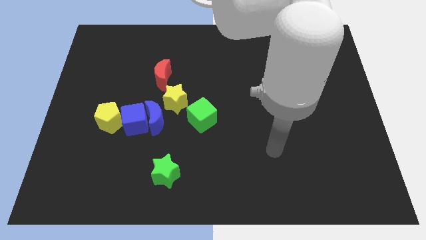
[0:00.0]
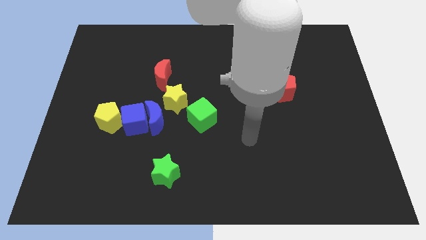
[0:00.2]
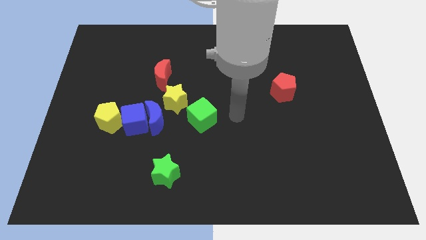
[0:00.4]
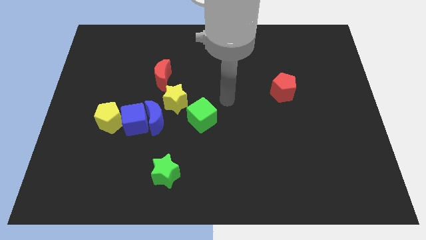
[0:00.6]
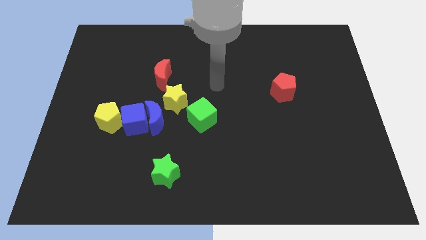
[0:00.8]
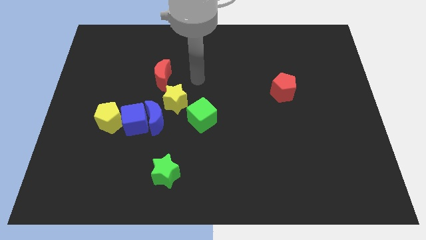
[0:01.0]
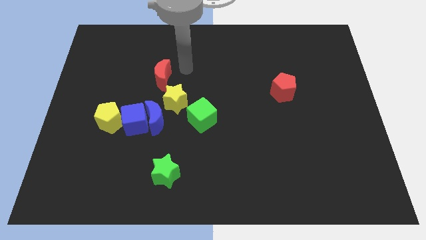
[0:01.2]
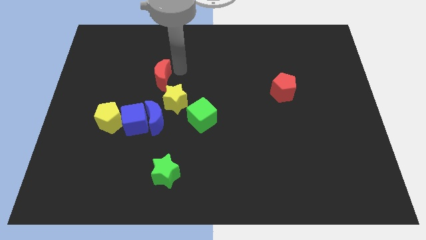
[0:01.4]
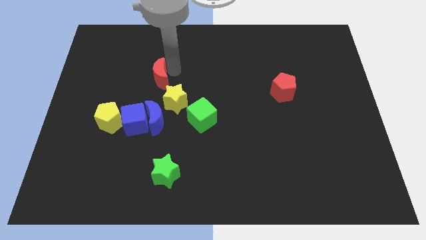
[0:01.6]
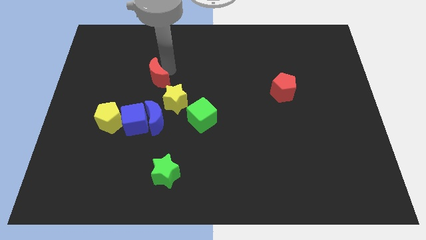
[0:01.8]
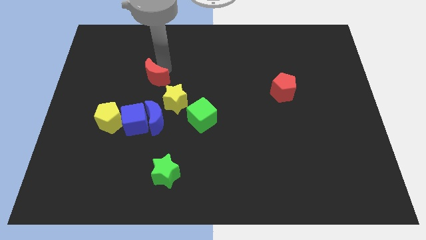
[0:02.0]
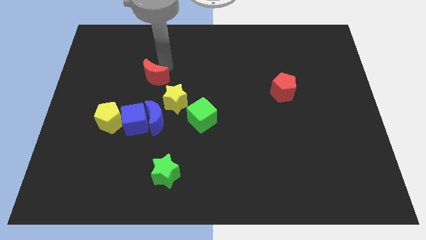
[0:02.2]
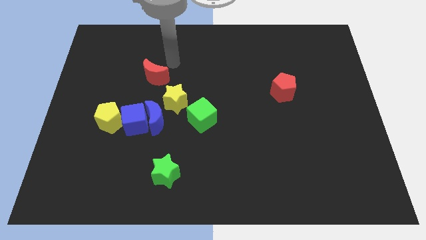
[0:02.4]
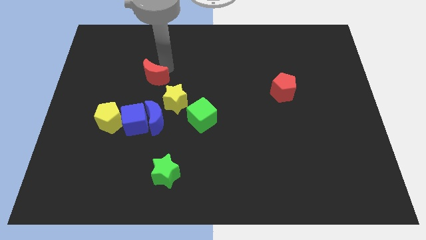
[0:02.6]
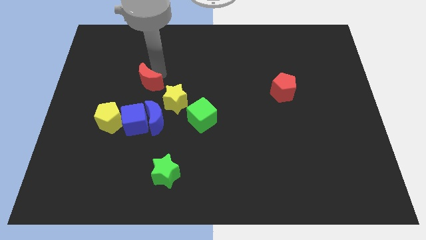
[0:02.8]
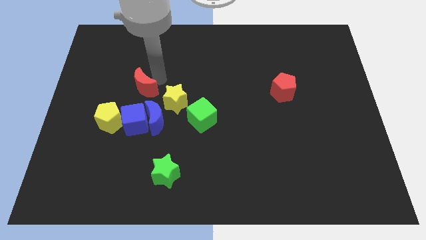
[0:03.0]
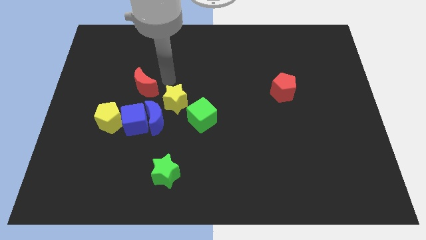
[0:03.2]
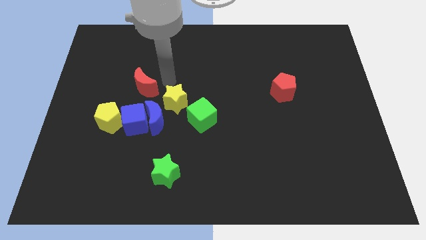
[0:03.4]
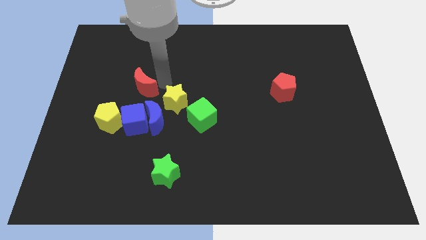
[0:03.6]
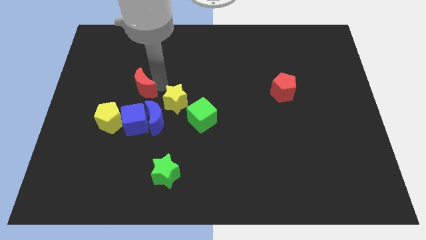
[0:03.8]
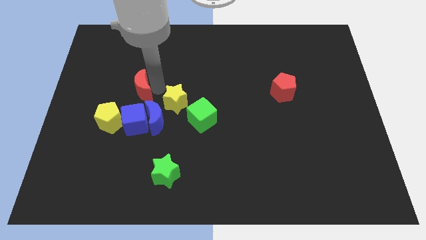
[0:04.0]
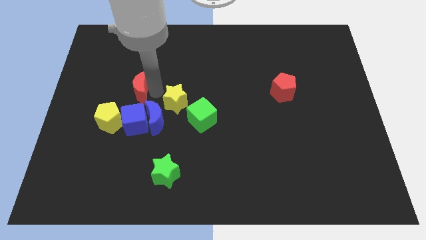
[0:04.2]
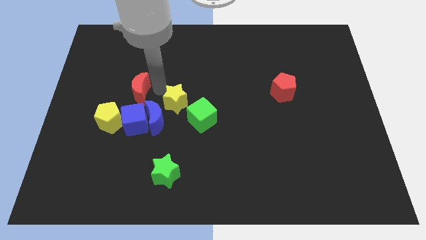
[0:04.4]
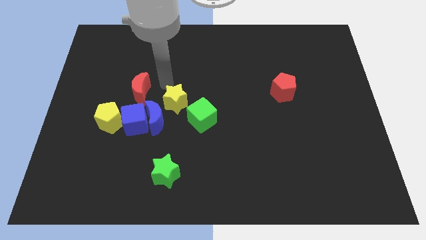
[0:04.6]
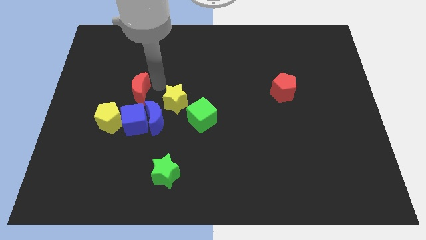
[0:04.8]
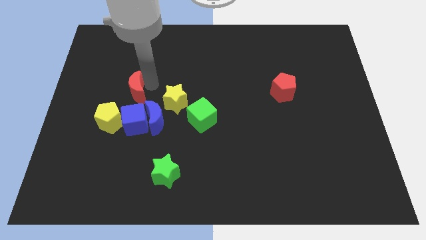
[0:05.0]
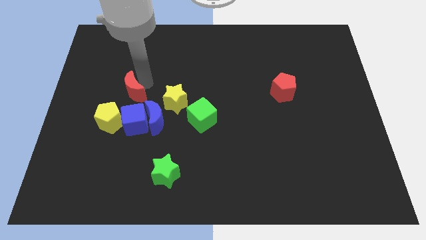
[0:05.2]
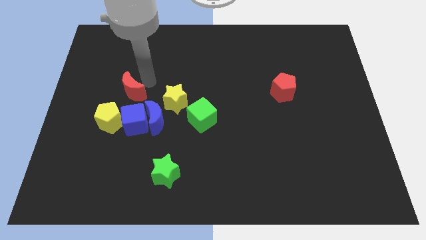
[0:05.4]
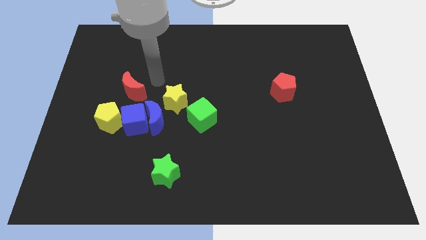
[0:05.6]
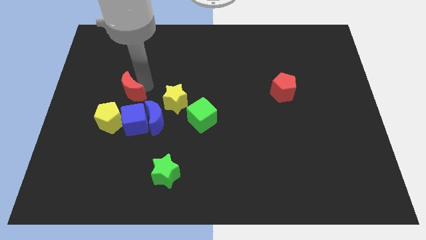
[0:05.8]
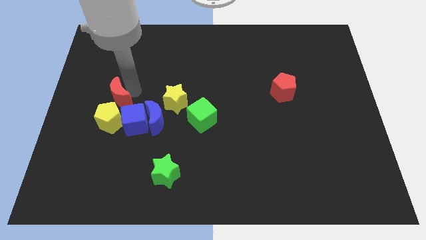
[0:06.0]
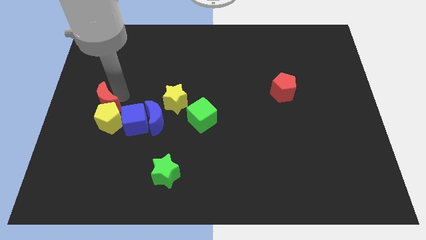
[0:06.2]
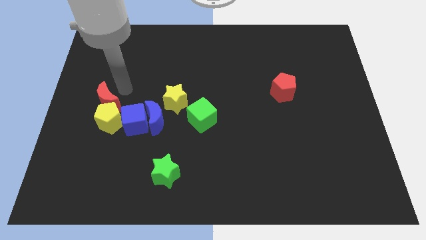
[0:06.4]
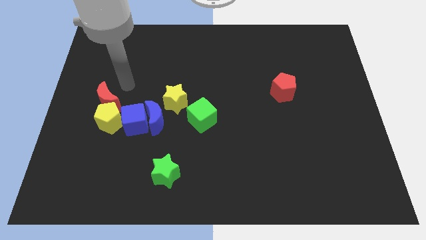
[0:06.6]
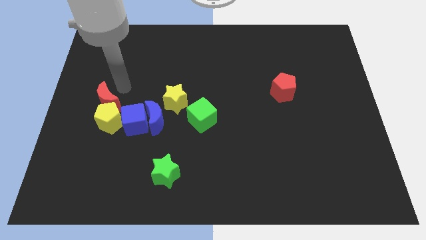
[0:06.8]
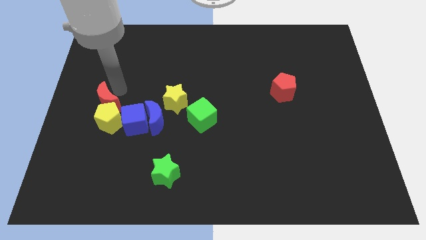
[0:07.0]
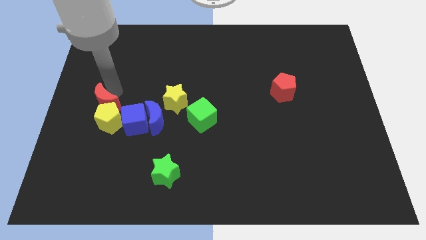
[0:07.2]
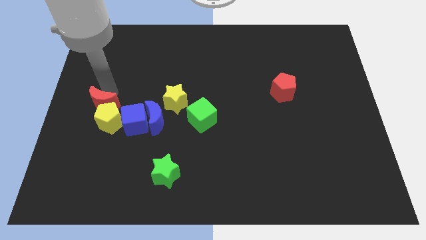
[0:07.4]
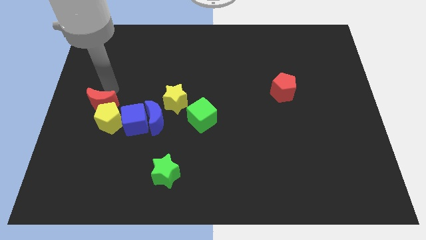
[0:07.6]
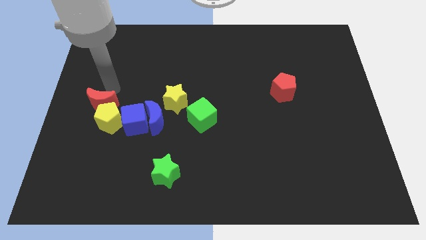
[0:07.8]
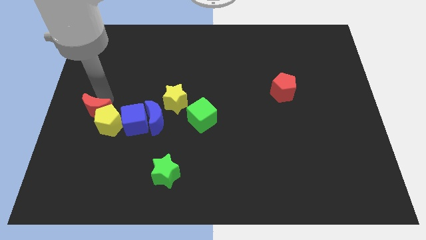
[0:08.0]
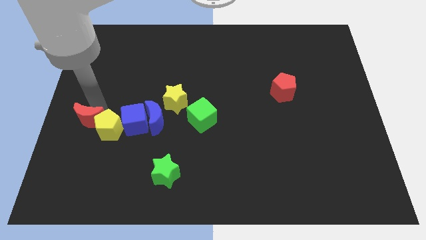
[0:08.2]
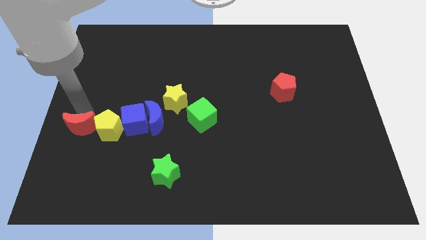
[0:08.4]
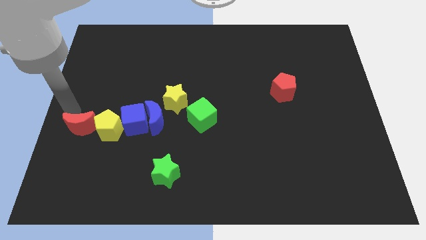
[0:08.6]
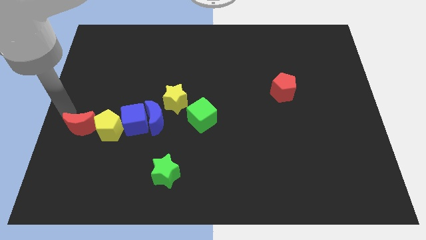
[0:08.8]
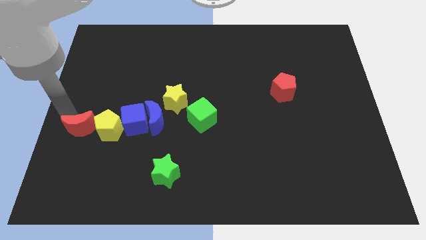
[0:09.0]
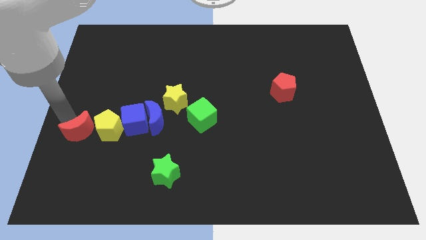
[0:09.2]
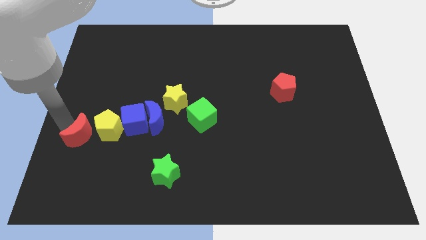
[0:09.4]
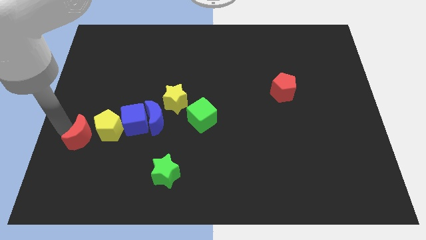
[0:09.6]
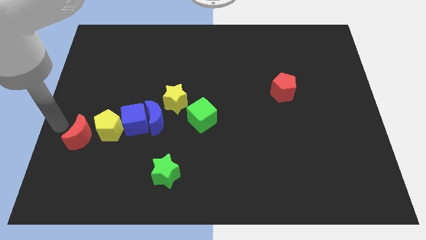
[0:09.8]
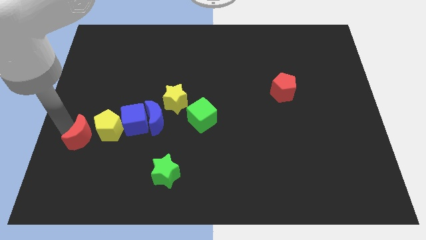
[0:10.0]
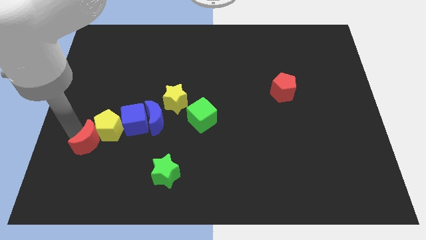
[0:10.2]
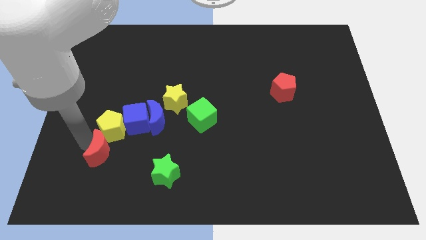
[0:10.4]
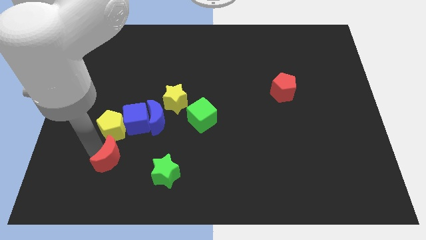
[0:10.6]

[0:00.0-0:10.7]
push the red moon below the blue cube

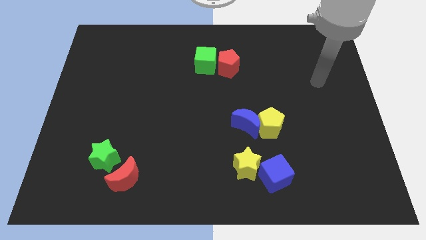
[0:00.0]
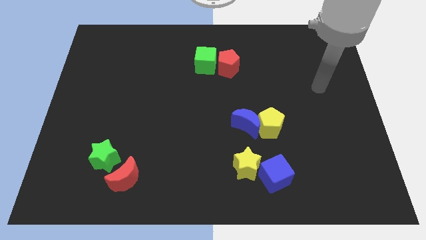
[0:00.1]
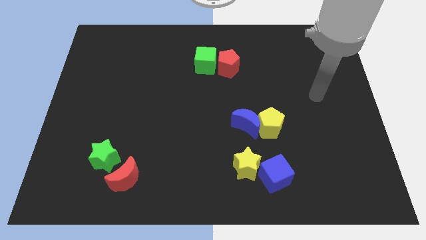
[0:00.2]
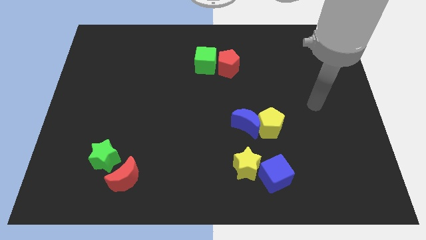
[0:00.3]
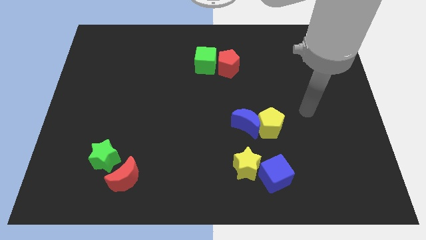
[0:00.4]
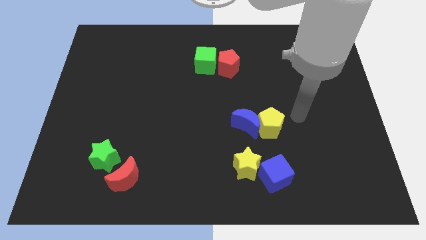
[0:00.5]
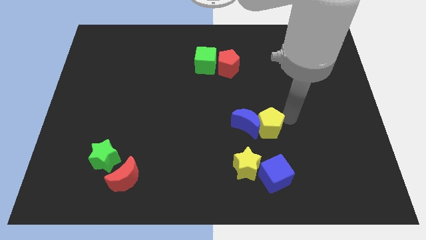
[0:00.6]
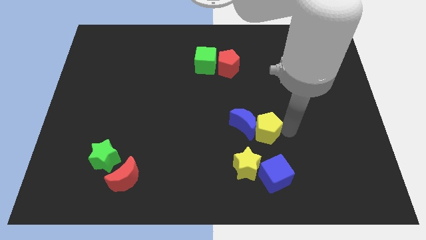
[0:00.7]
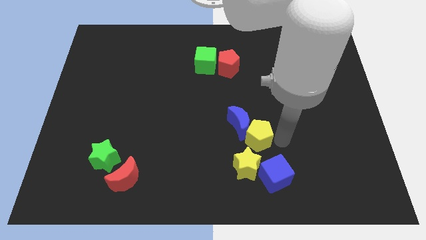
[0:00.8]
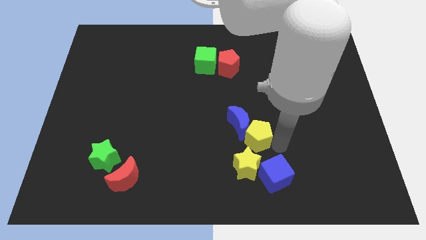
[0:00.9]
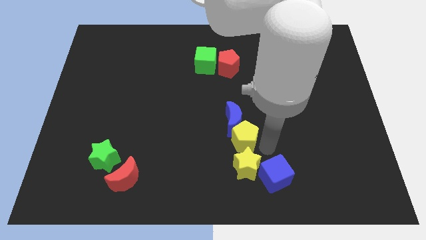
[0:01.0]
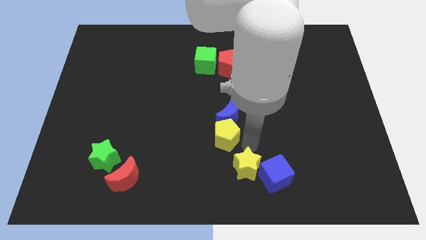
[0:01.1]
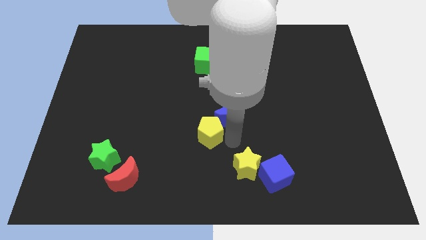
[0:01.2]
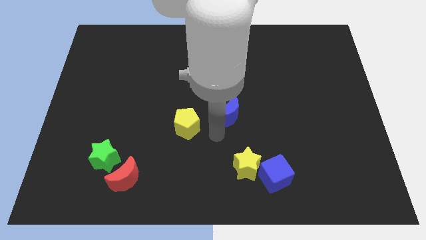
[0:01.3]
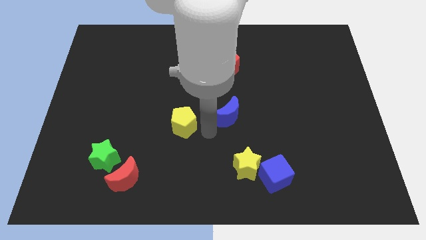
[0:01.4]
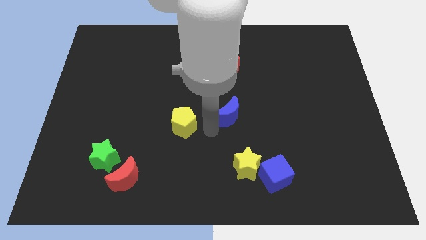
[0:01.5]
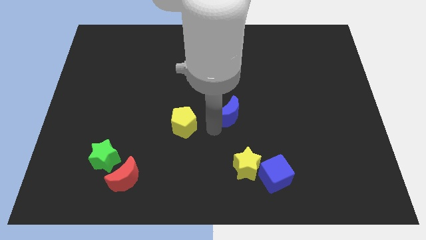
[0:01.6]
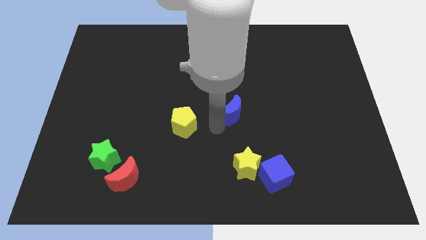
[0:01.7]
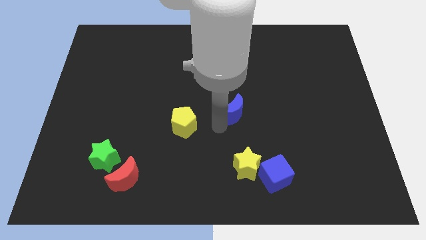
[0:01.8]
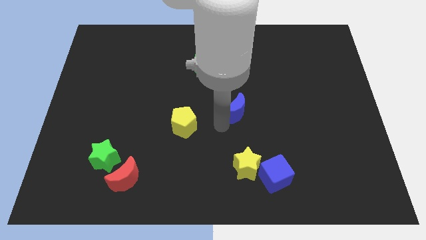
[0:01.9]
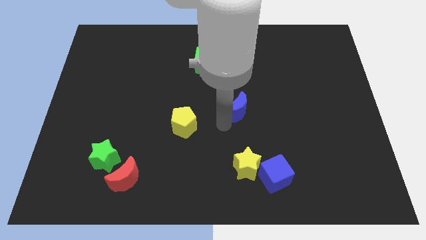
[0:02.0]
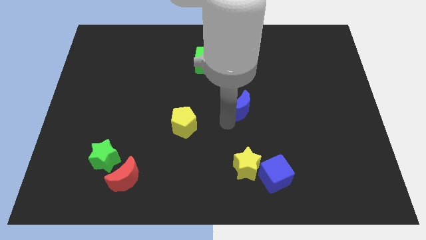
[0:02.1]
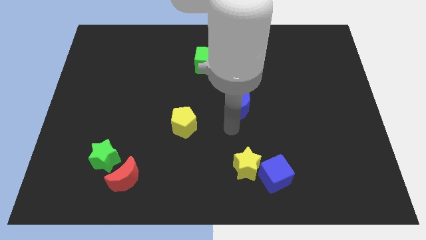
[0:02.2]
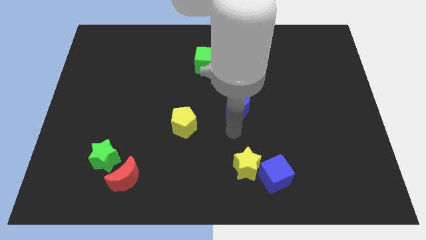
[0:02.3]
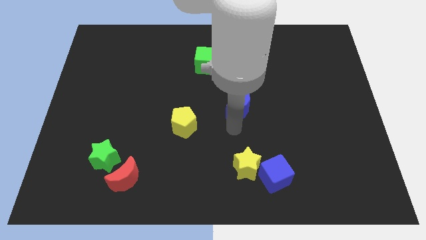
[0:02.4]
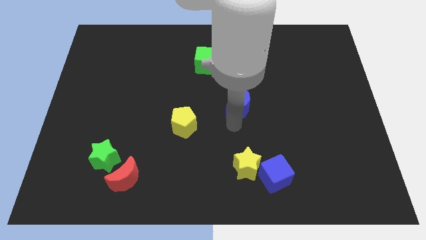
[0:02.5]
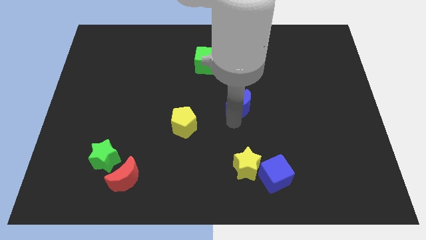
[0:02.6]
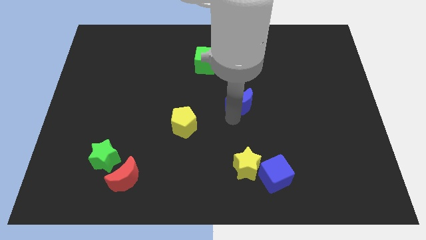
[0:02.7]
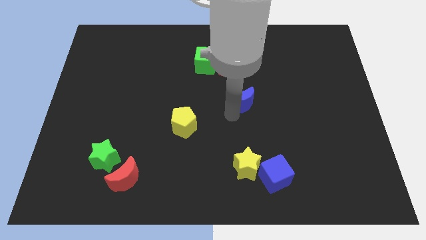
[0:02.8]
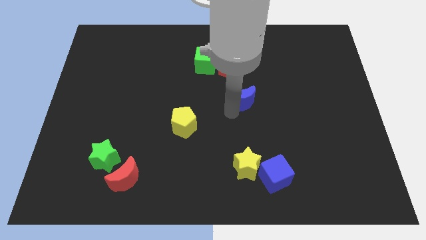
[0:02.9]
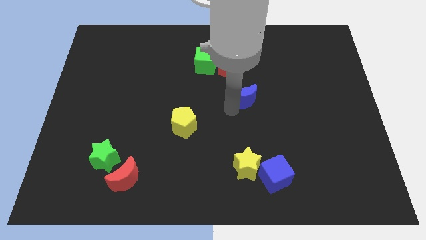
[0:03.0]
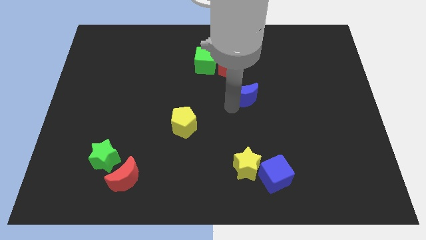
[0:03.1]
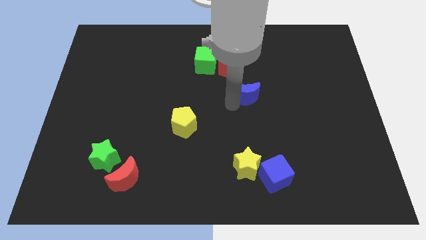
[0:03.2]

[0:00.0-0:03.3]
move the blue moon to the bottom right side of the red pentagon
